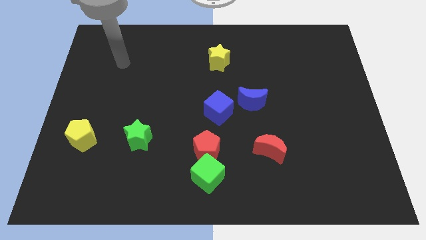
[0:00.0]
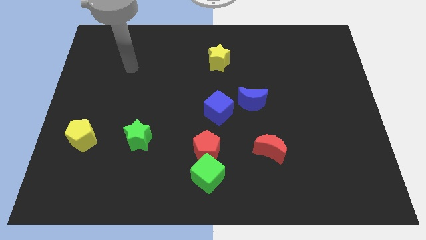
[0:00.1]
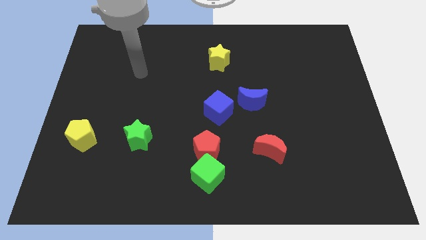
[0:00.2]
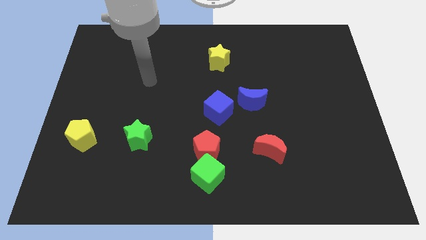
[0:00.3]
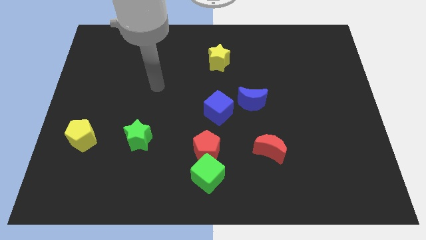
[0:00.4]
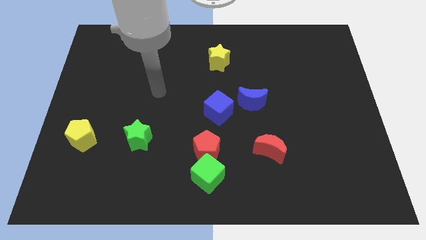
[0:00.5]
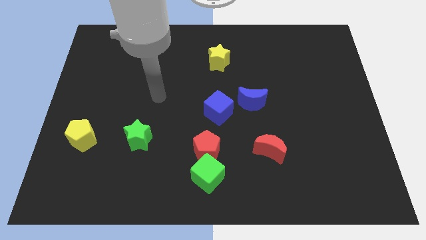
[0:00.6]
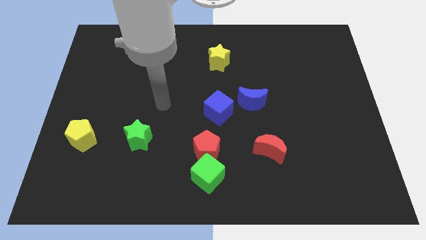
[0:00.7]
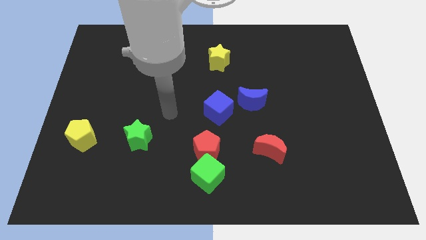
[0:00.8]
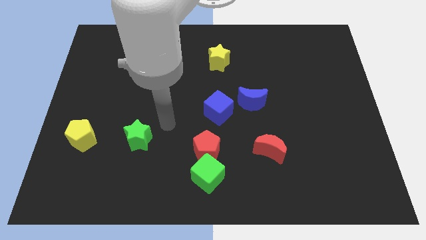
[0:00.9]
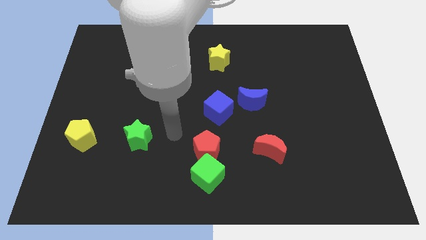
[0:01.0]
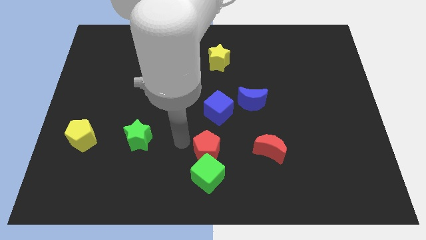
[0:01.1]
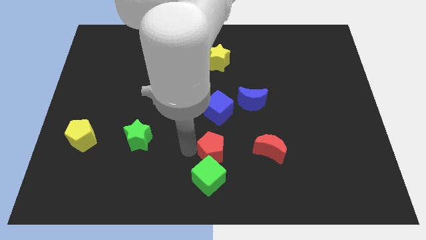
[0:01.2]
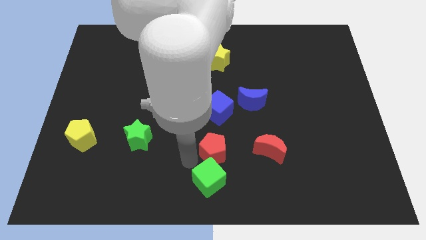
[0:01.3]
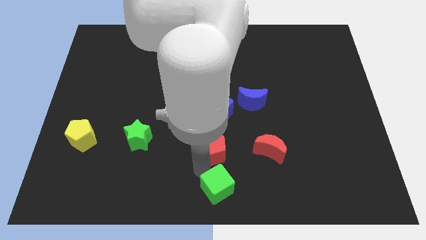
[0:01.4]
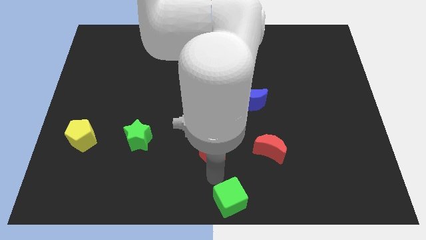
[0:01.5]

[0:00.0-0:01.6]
separate the red pentagon from the green cube

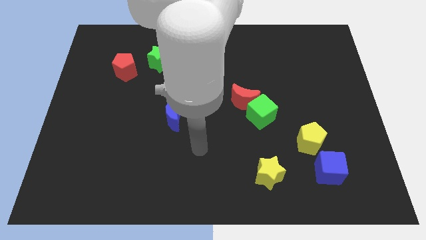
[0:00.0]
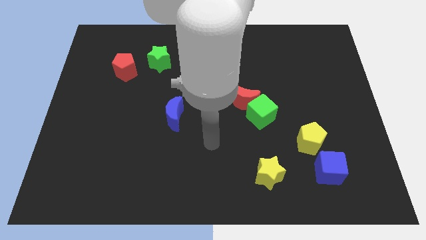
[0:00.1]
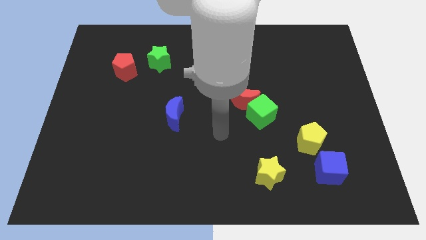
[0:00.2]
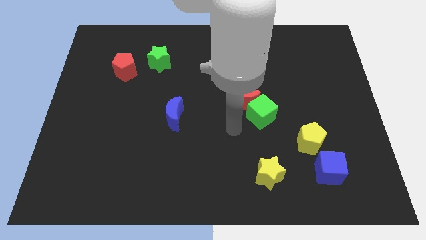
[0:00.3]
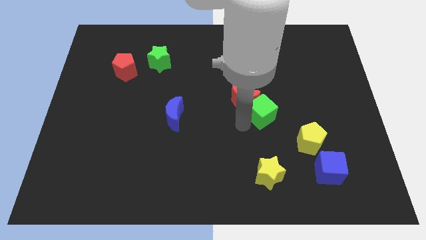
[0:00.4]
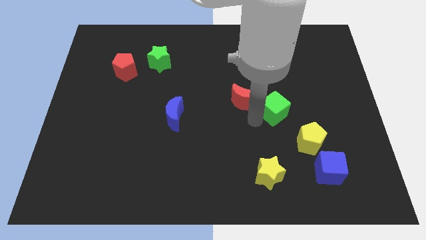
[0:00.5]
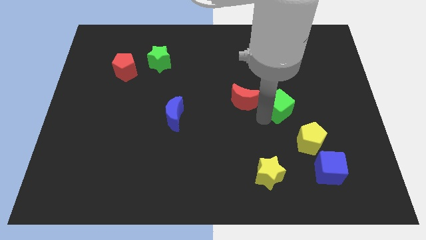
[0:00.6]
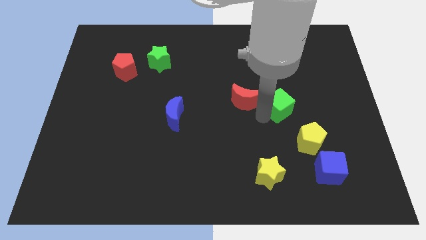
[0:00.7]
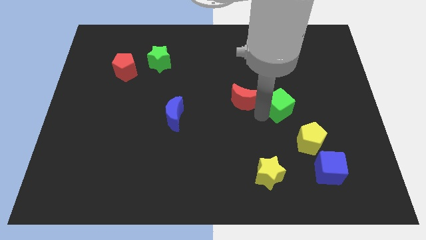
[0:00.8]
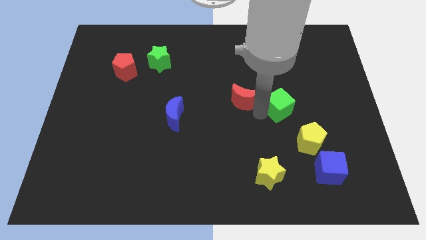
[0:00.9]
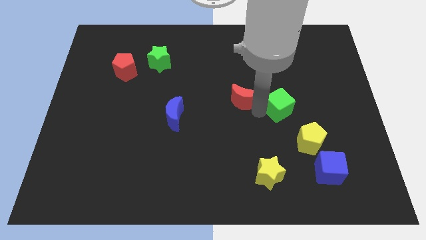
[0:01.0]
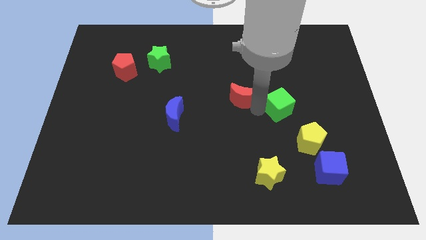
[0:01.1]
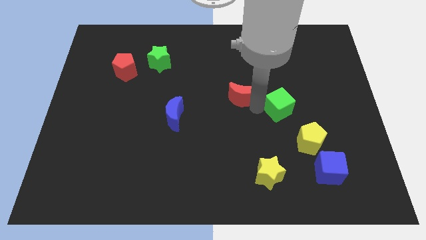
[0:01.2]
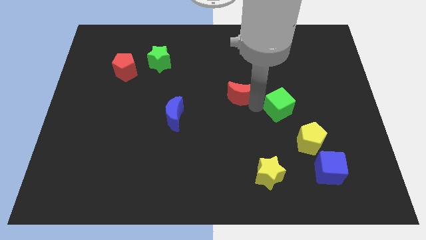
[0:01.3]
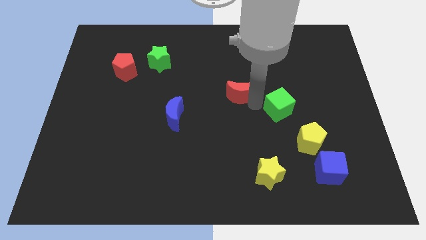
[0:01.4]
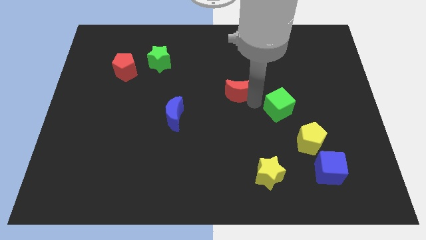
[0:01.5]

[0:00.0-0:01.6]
move the red moon away from the green cube

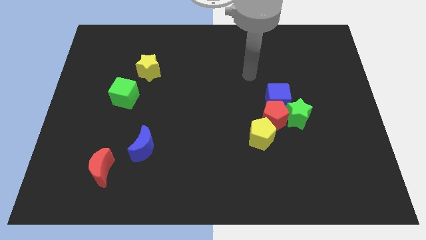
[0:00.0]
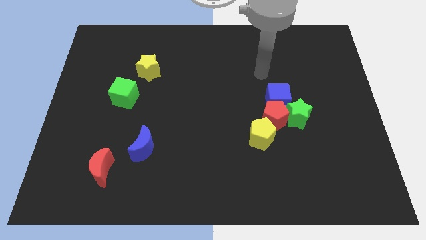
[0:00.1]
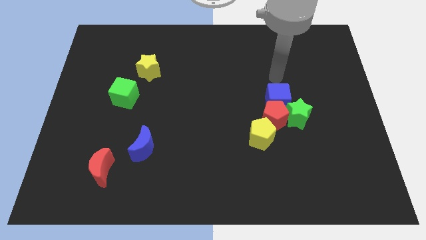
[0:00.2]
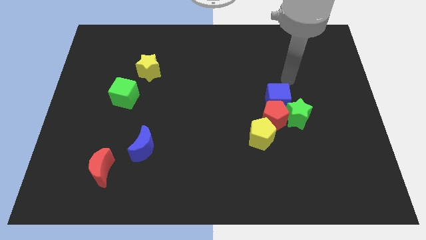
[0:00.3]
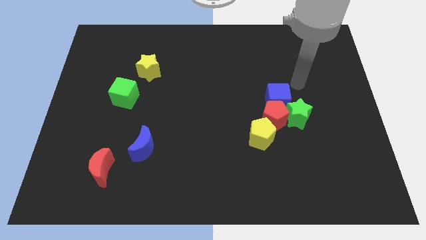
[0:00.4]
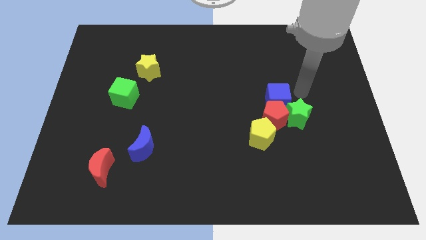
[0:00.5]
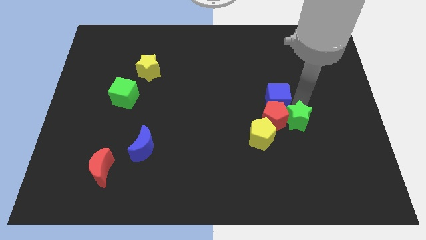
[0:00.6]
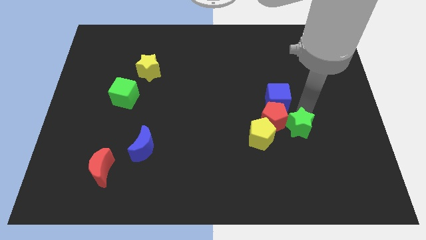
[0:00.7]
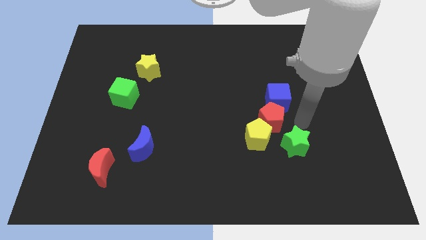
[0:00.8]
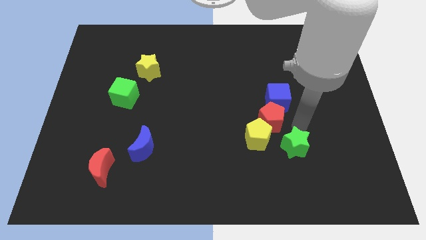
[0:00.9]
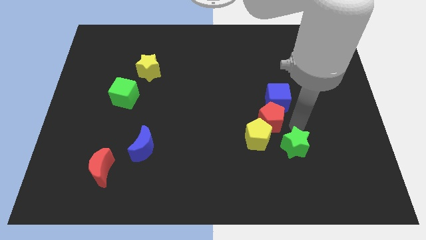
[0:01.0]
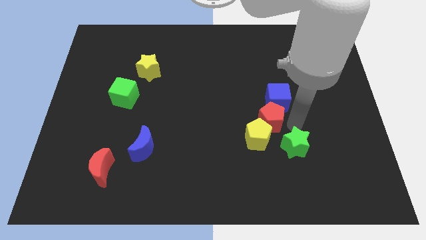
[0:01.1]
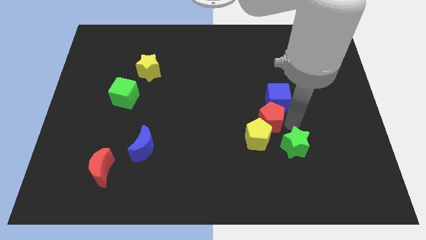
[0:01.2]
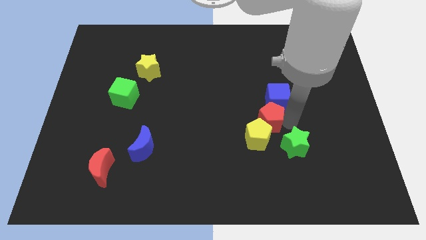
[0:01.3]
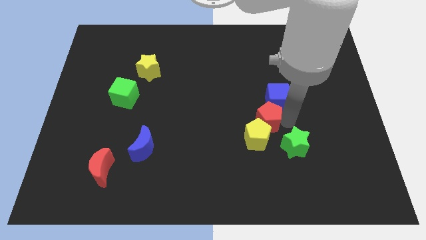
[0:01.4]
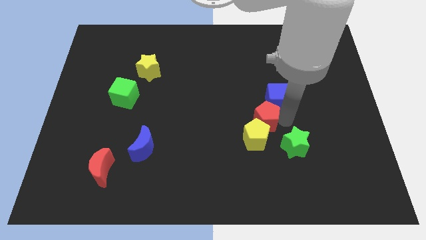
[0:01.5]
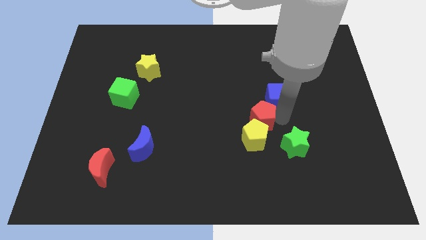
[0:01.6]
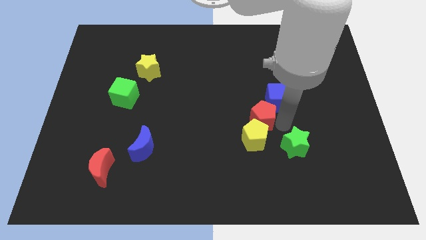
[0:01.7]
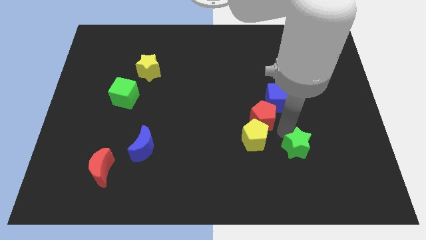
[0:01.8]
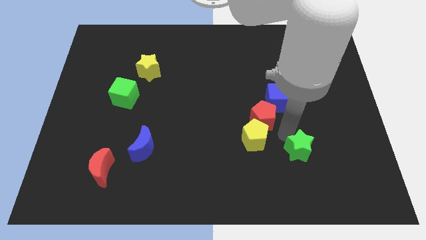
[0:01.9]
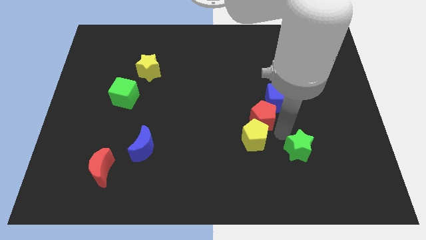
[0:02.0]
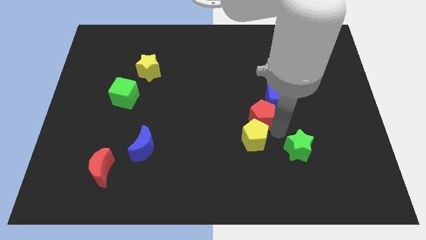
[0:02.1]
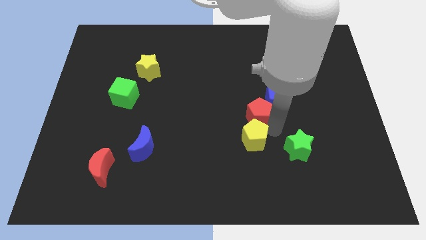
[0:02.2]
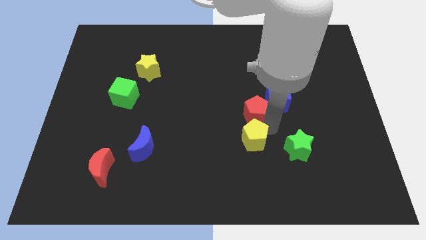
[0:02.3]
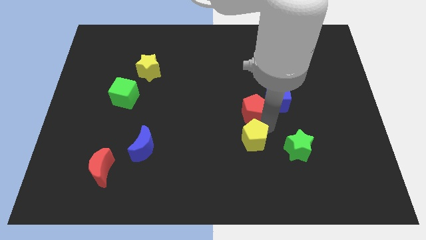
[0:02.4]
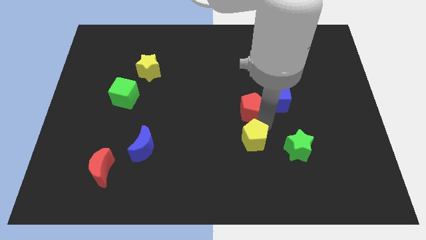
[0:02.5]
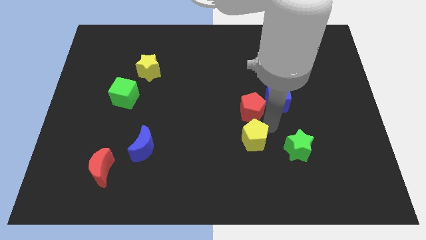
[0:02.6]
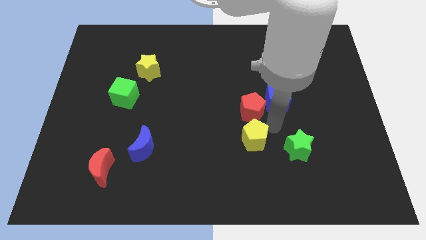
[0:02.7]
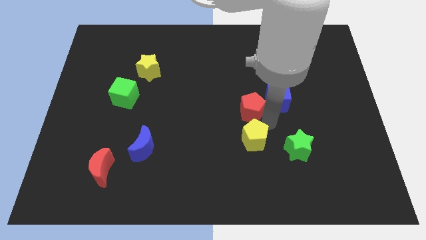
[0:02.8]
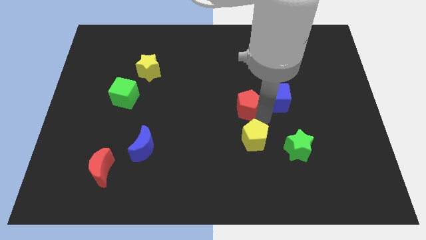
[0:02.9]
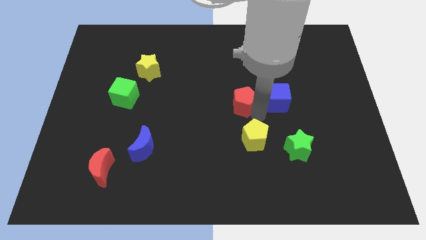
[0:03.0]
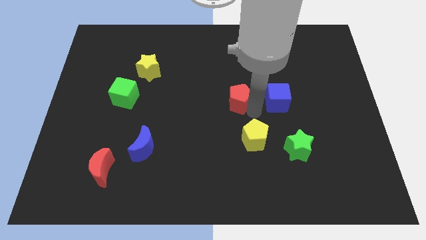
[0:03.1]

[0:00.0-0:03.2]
separate the red pentagon from the green star, blue cube, and yellow pentagon

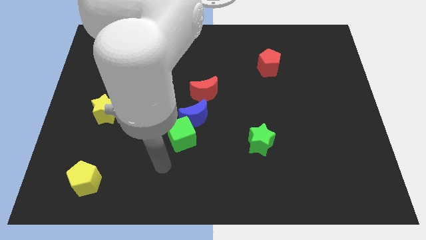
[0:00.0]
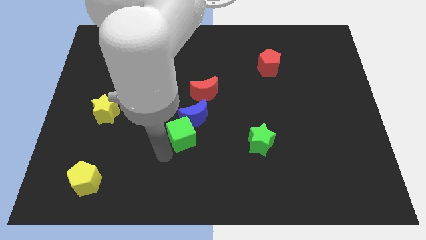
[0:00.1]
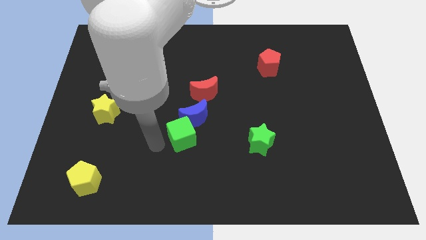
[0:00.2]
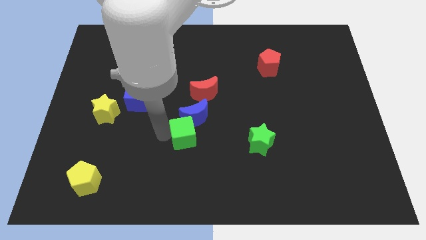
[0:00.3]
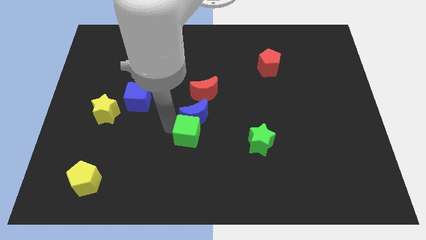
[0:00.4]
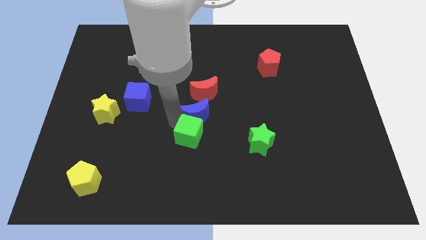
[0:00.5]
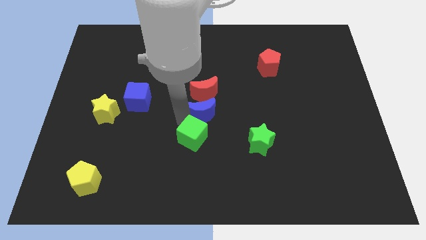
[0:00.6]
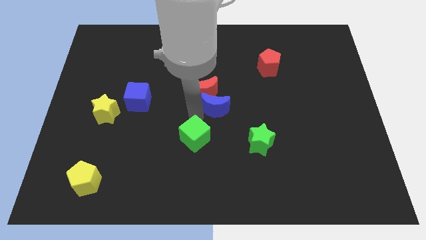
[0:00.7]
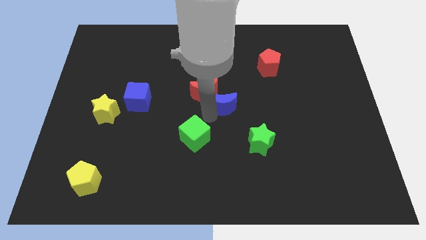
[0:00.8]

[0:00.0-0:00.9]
move the green cube away from the blue moon

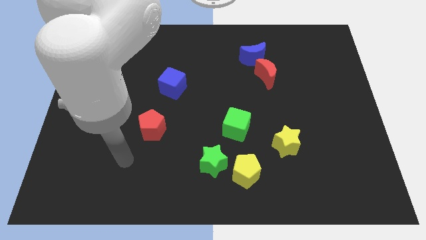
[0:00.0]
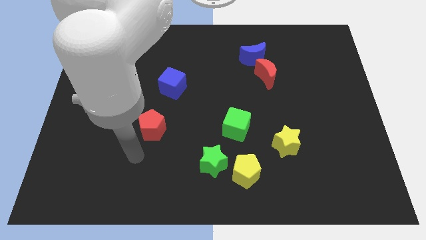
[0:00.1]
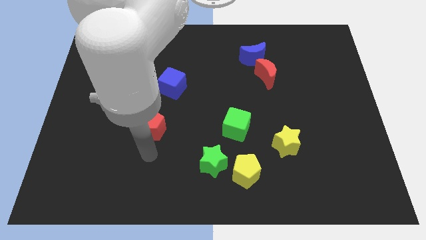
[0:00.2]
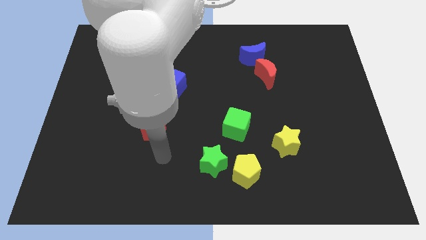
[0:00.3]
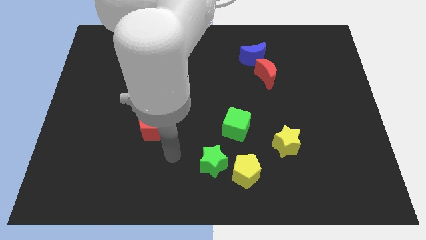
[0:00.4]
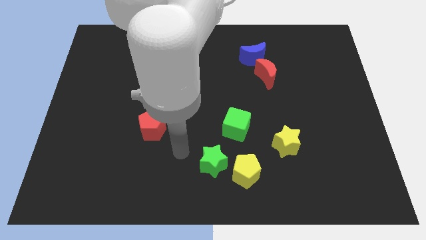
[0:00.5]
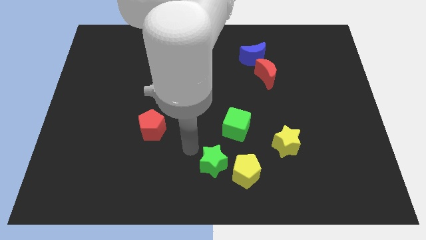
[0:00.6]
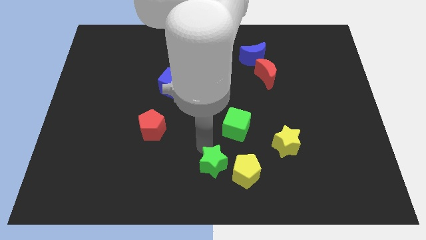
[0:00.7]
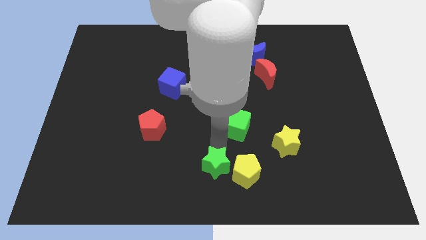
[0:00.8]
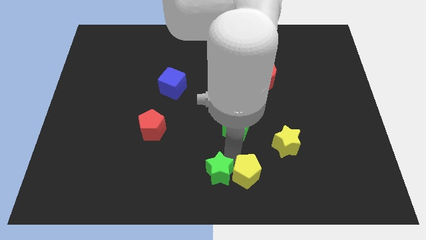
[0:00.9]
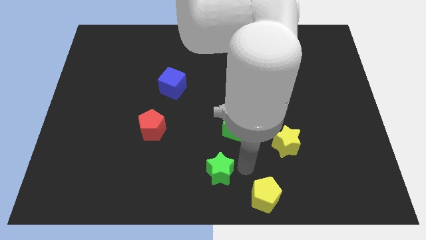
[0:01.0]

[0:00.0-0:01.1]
pull the green star apart from the yellow pentagon

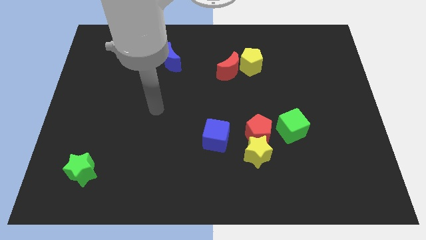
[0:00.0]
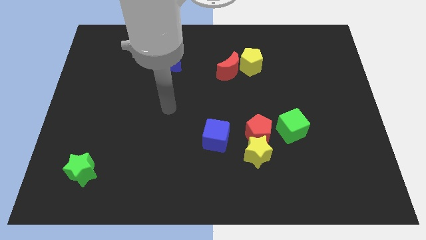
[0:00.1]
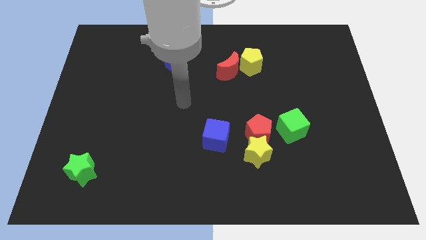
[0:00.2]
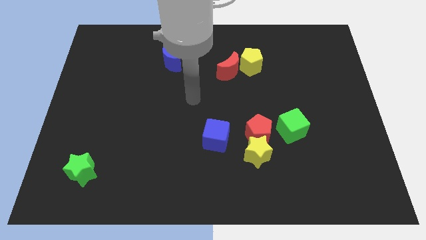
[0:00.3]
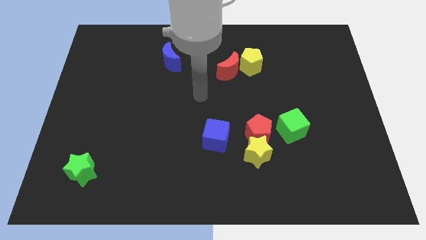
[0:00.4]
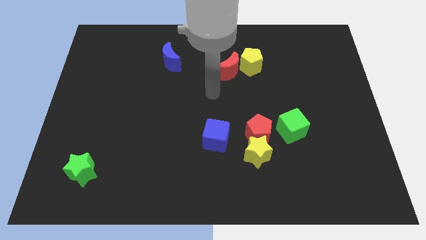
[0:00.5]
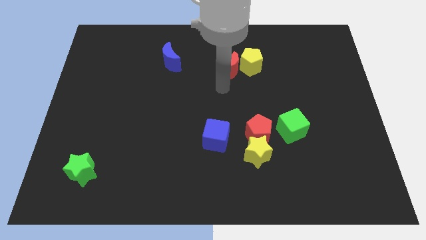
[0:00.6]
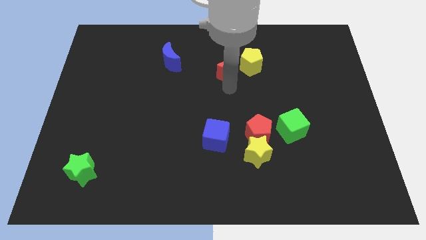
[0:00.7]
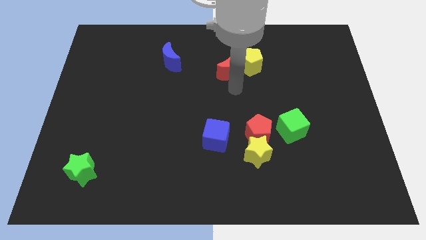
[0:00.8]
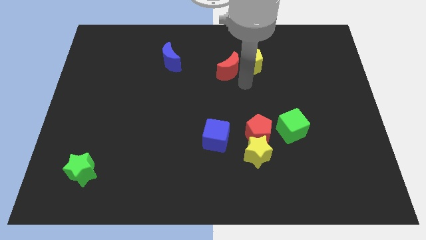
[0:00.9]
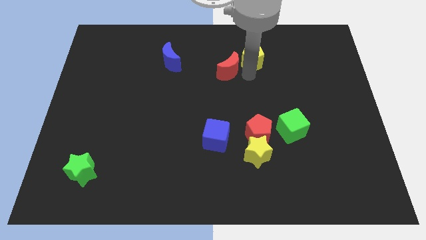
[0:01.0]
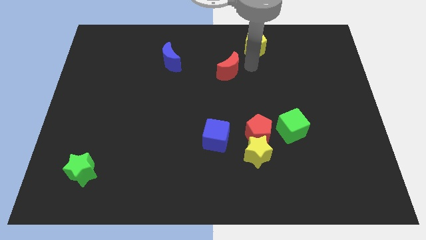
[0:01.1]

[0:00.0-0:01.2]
pull the red moon apart from the yellow pentagon
